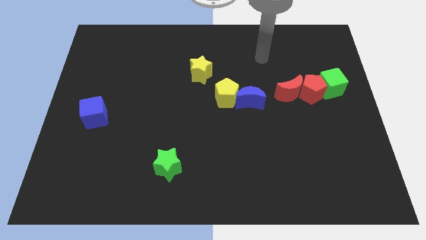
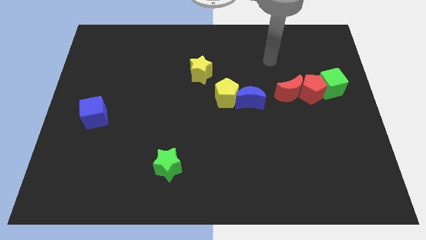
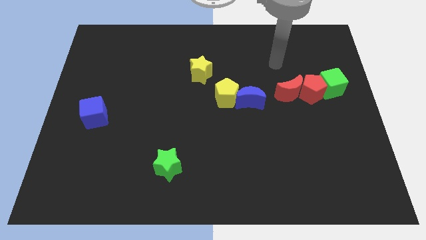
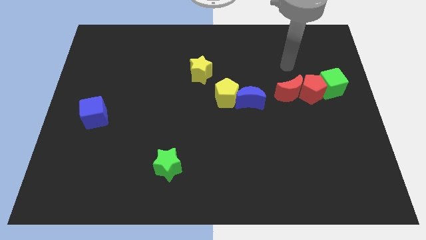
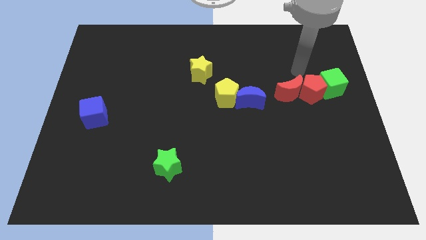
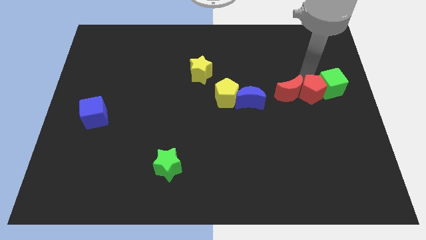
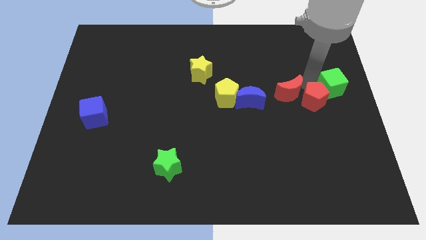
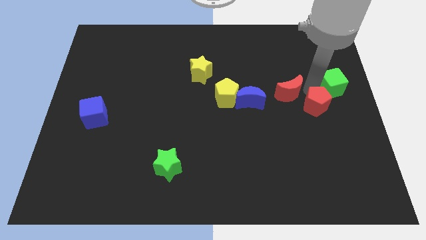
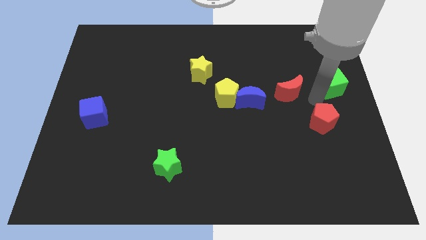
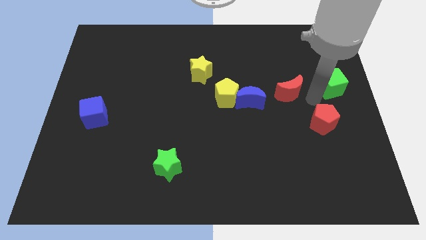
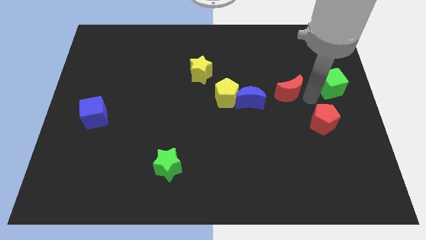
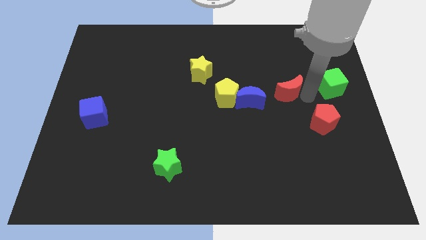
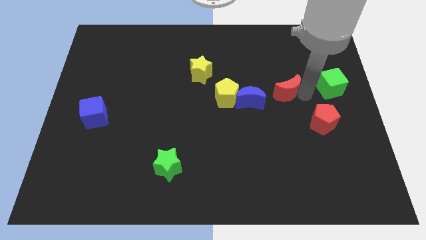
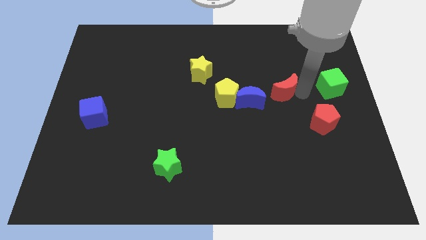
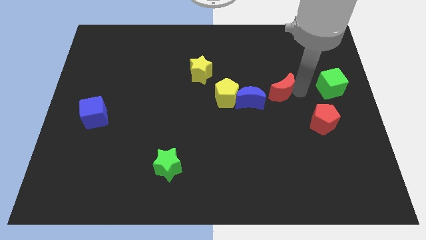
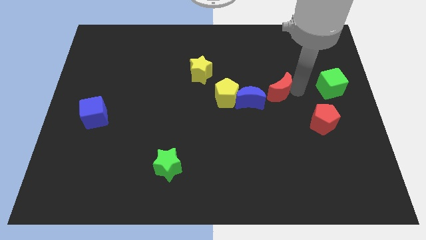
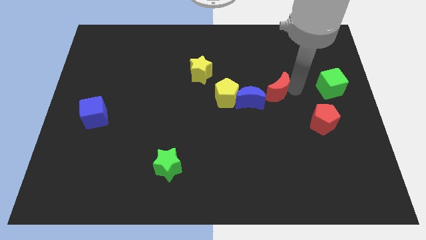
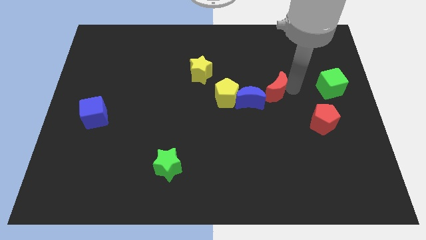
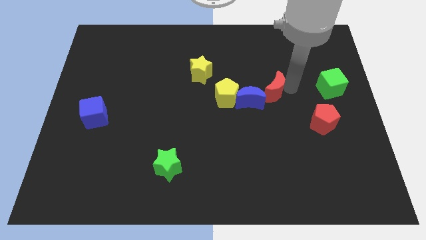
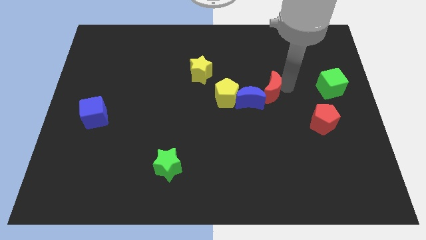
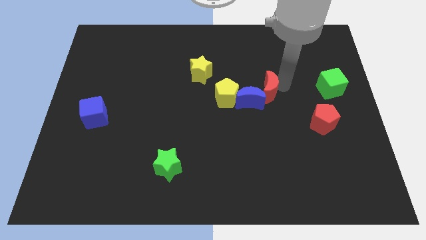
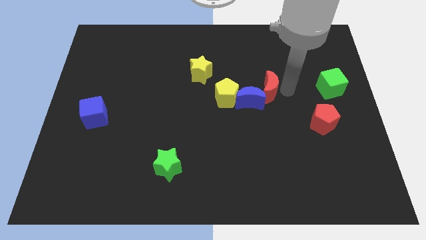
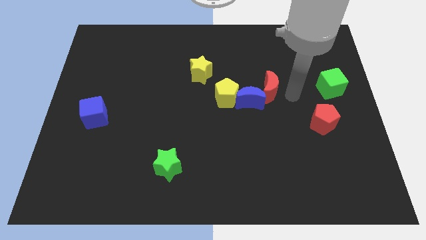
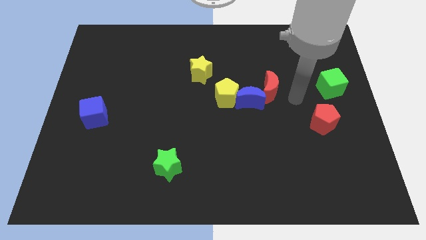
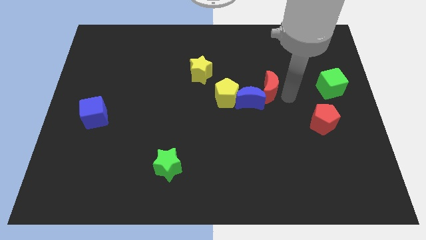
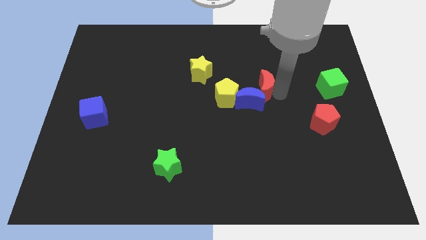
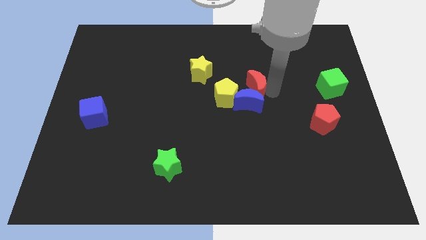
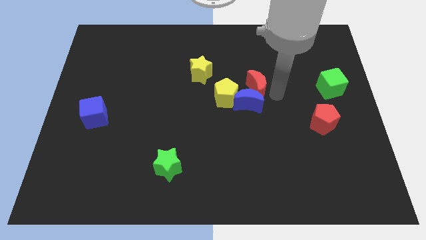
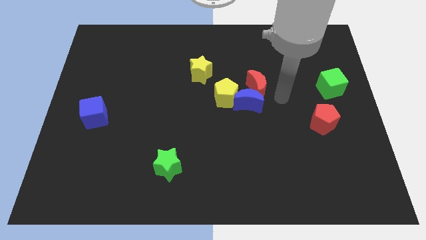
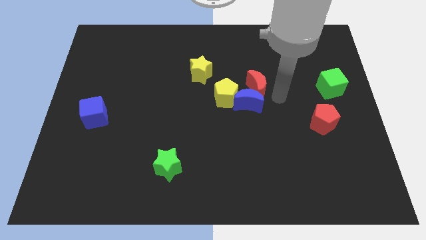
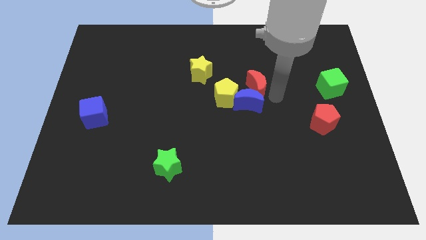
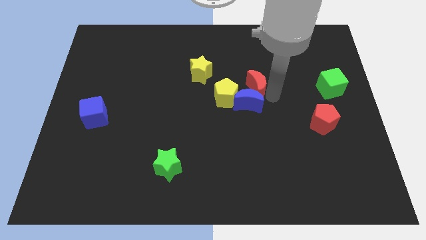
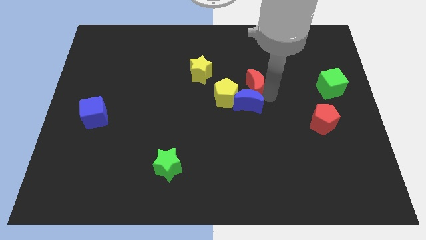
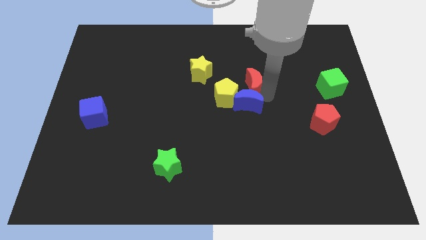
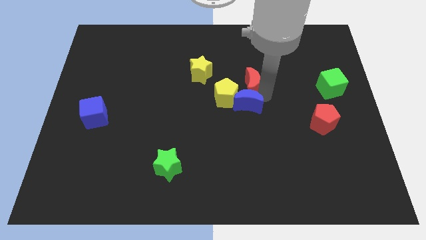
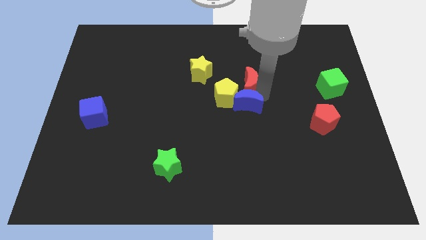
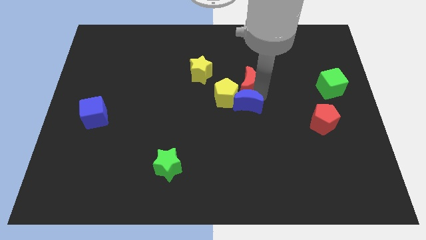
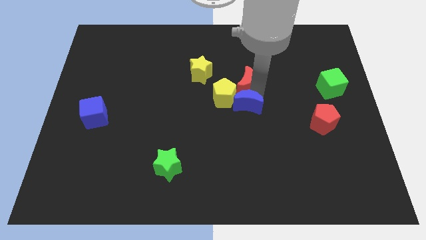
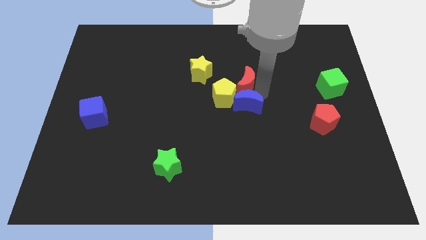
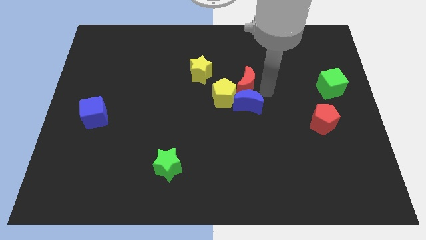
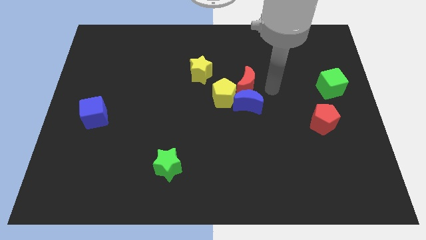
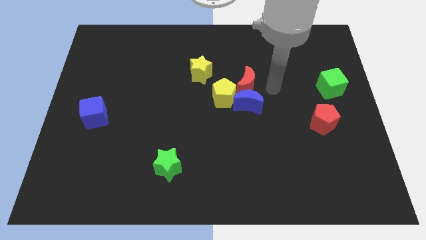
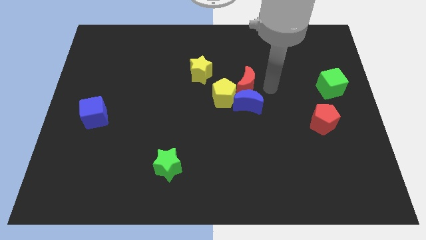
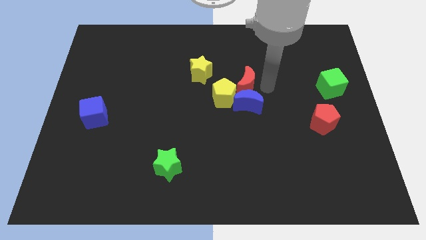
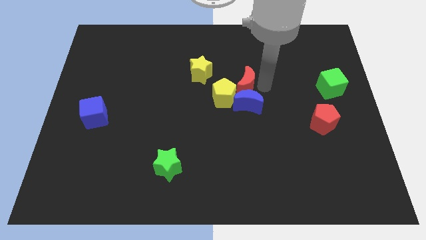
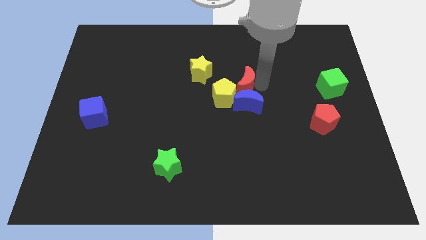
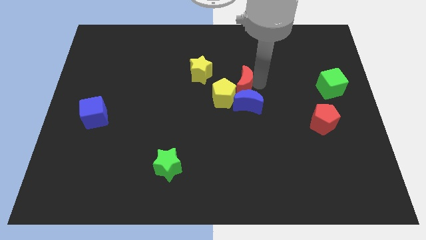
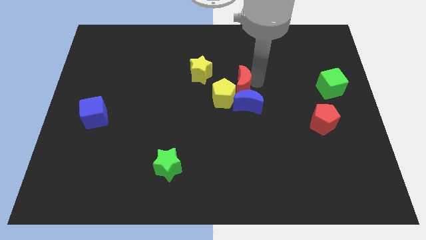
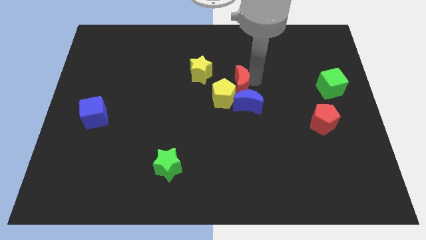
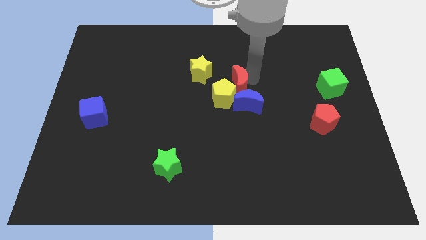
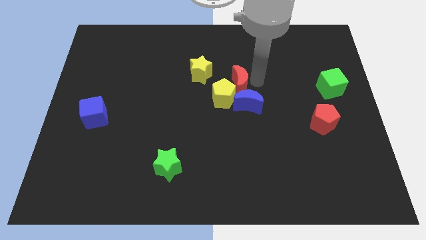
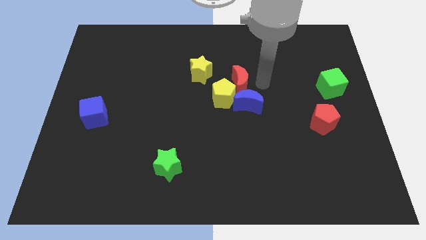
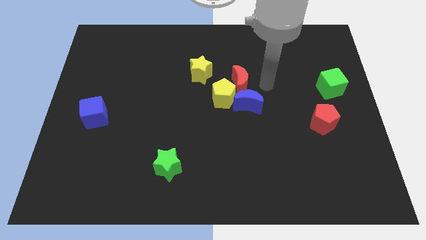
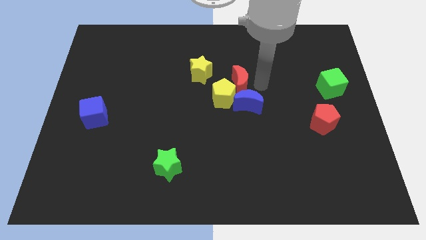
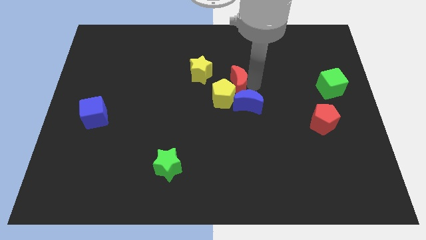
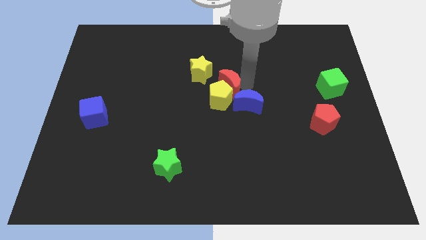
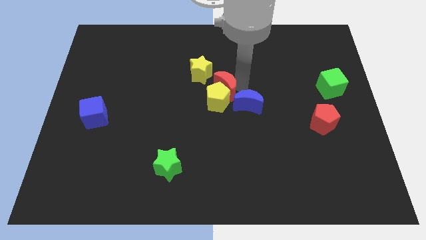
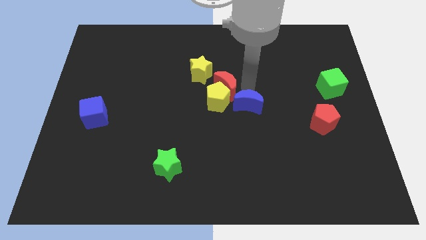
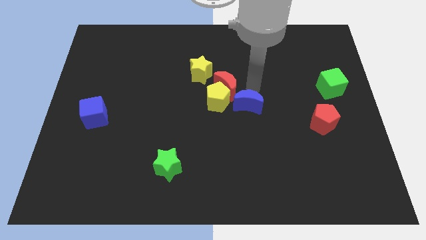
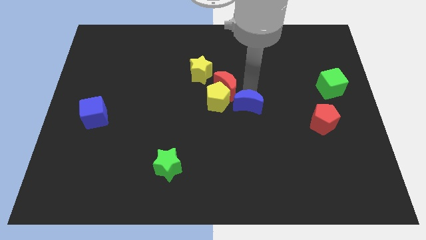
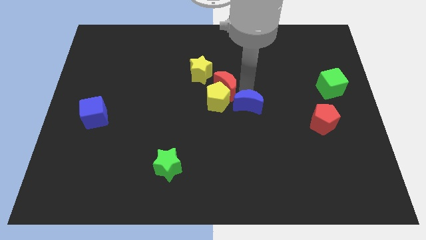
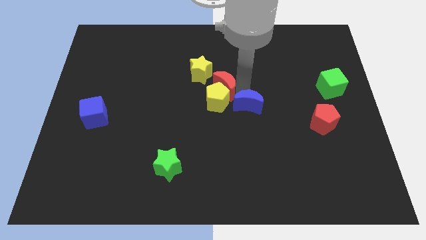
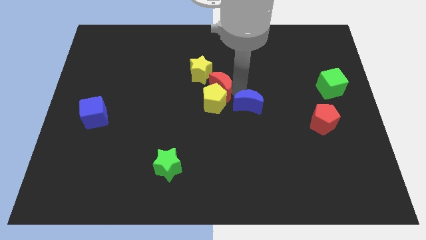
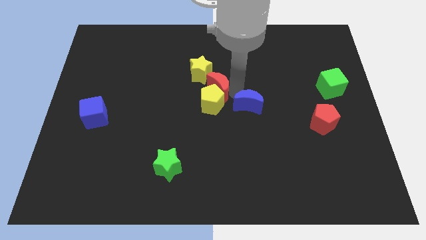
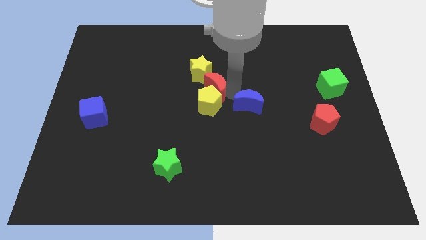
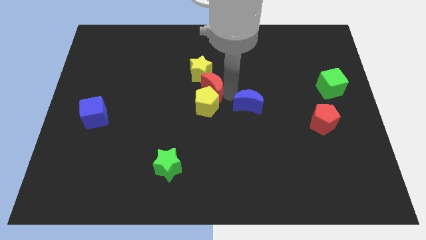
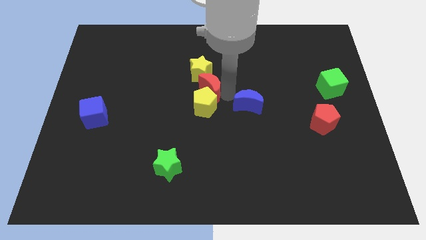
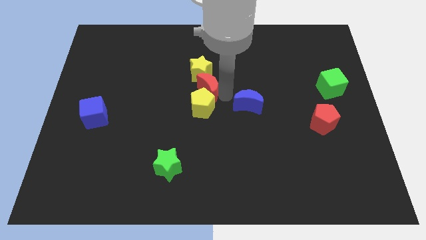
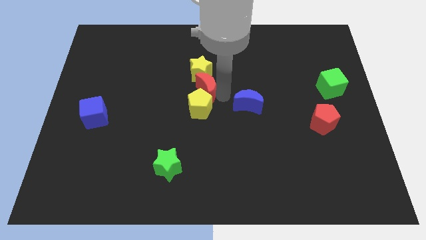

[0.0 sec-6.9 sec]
push the red moon left

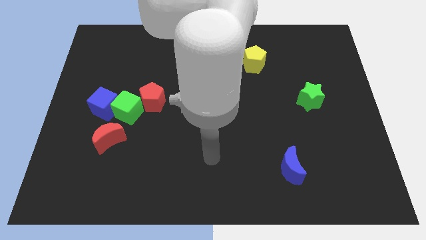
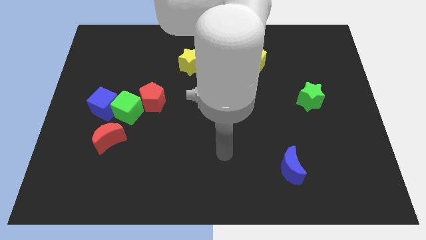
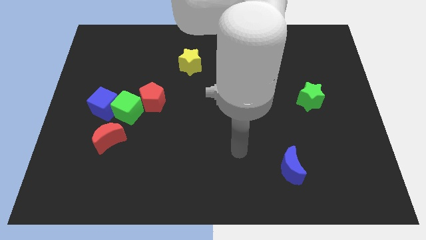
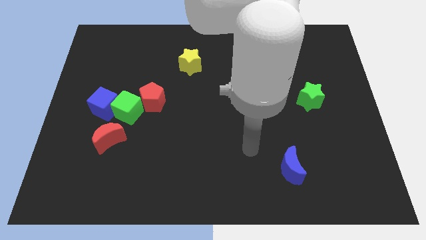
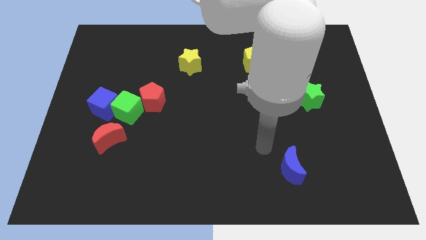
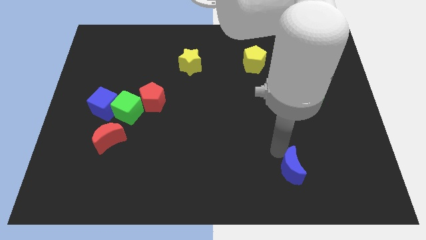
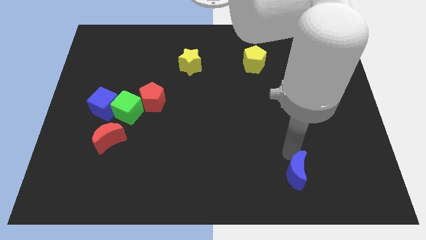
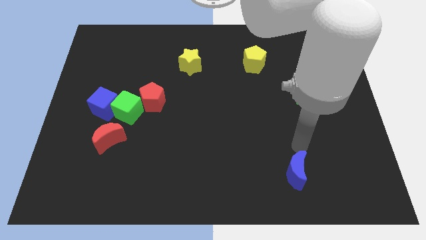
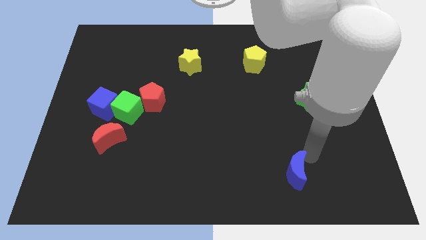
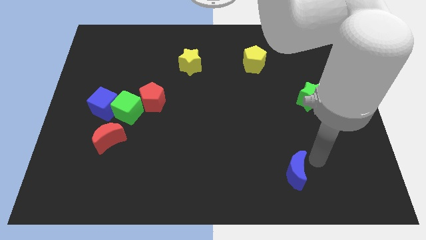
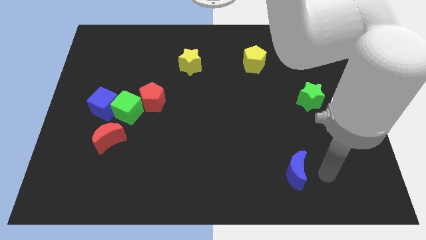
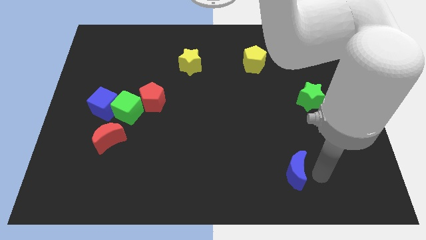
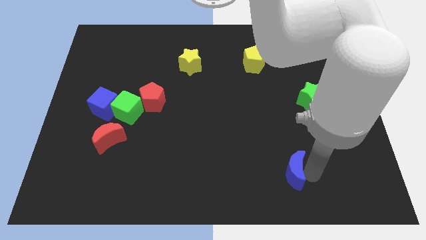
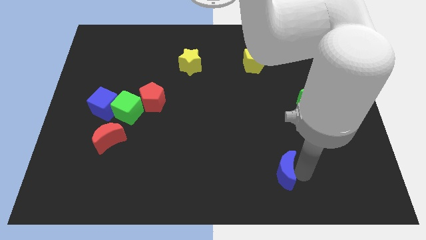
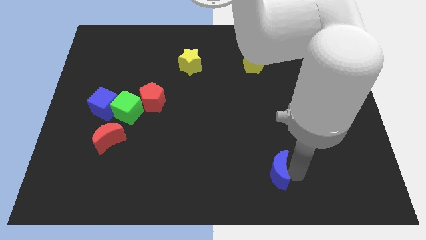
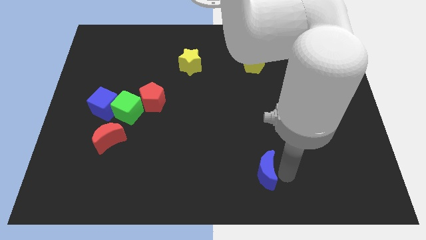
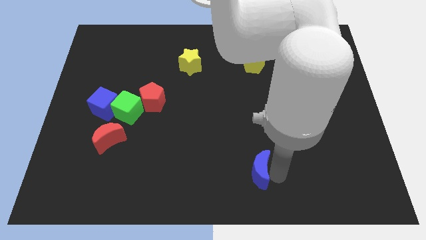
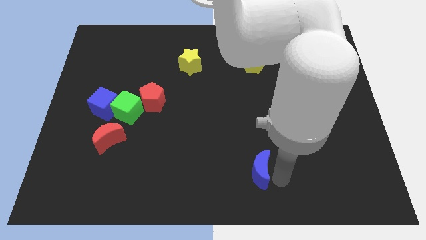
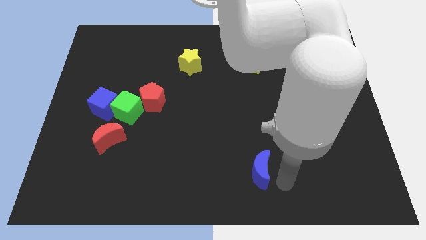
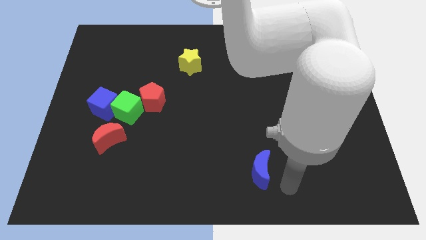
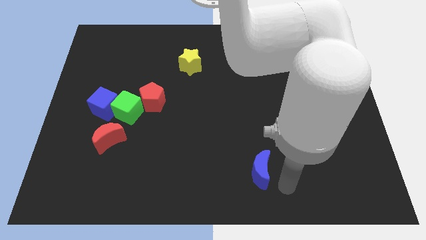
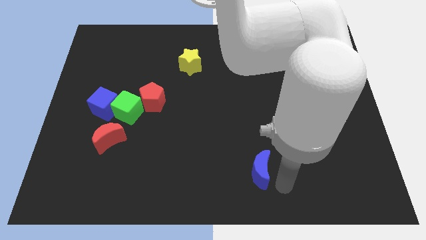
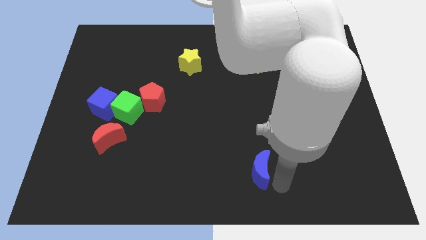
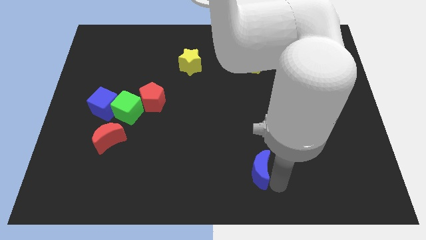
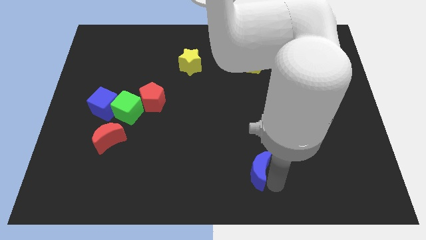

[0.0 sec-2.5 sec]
slide the blue moon left a little
